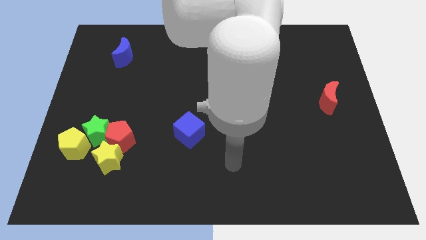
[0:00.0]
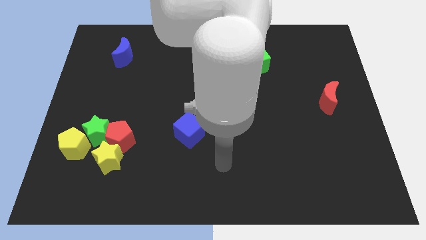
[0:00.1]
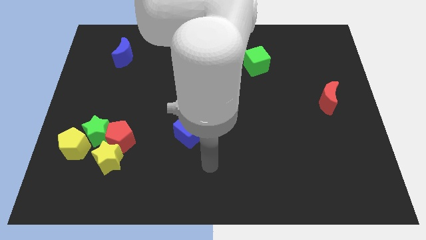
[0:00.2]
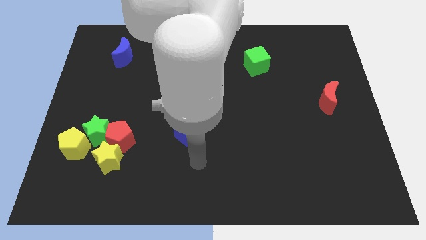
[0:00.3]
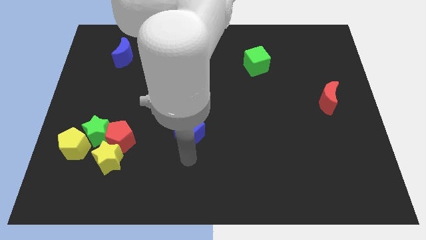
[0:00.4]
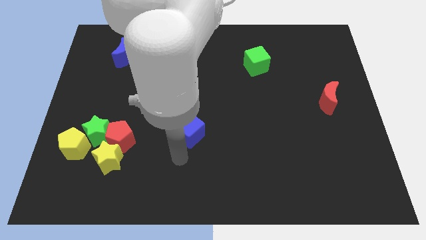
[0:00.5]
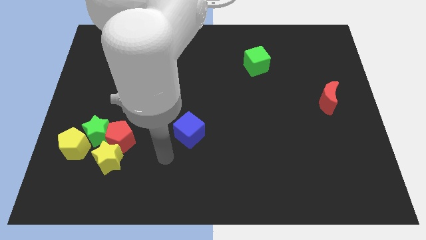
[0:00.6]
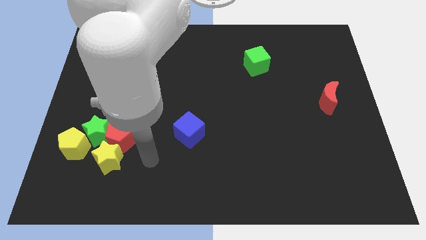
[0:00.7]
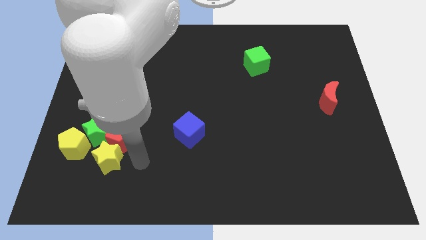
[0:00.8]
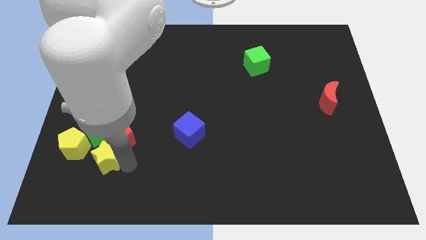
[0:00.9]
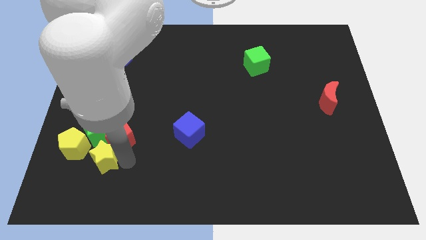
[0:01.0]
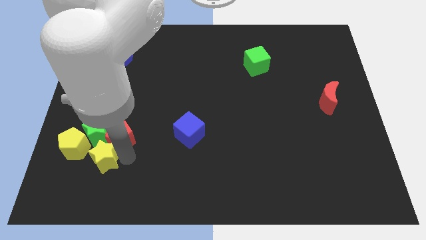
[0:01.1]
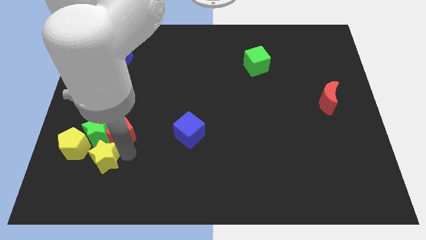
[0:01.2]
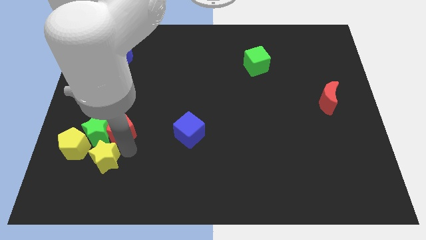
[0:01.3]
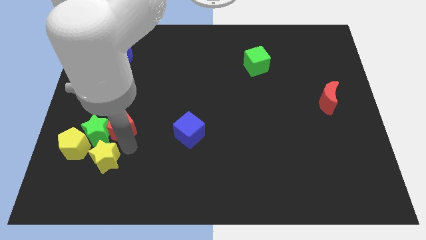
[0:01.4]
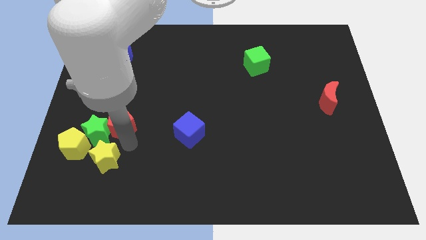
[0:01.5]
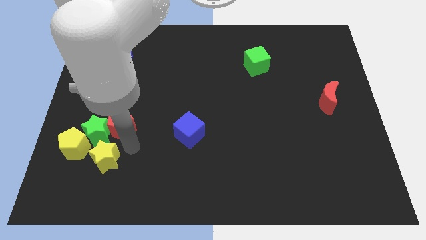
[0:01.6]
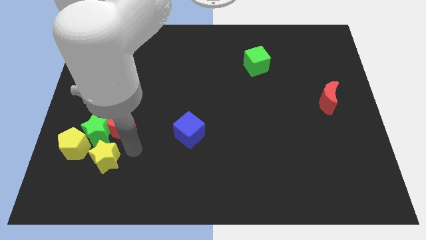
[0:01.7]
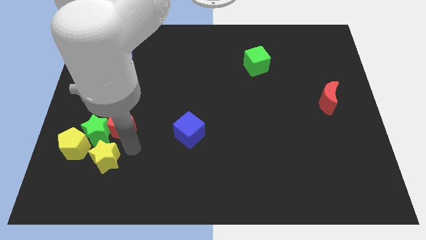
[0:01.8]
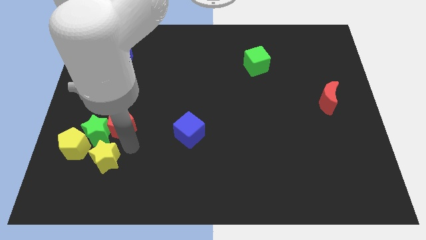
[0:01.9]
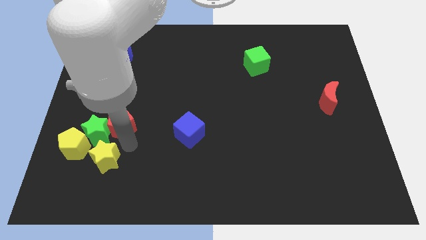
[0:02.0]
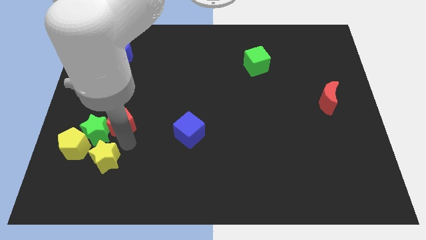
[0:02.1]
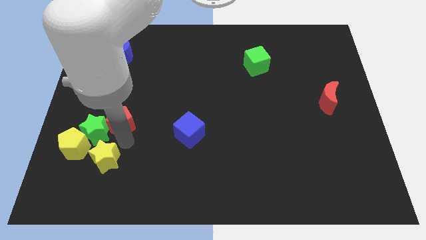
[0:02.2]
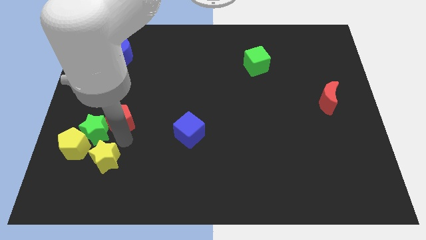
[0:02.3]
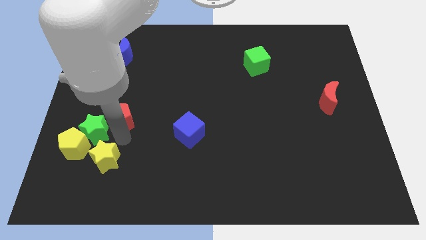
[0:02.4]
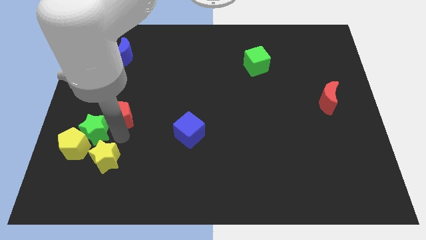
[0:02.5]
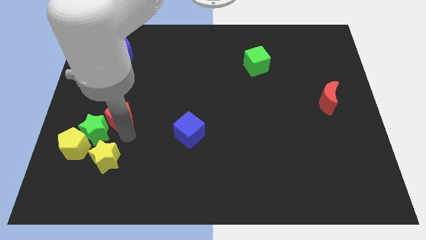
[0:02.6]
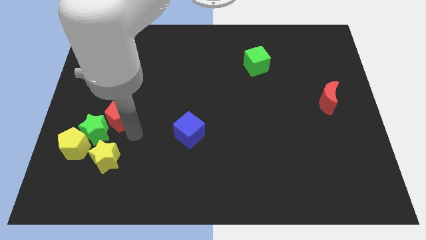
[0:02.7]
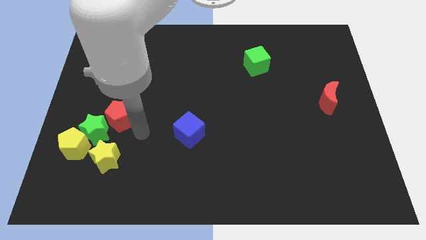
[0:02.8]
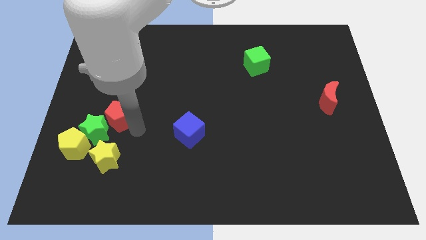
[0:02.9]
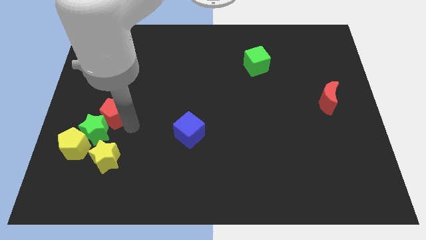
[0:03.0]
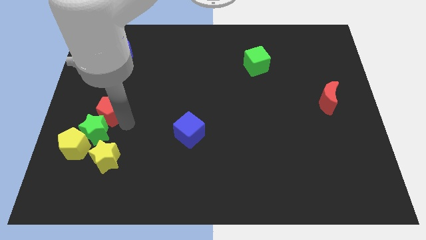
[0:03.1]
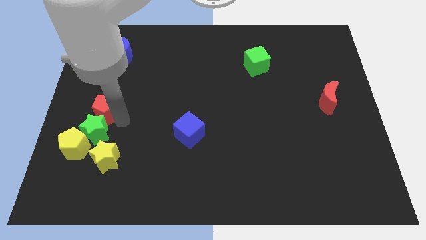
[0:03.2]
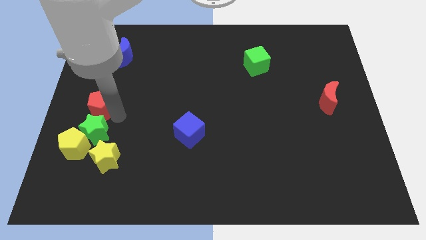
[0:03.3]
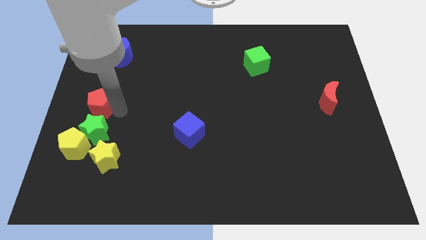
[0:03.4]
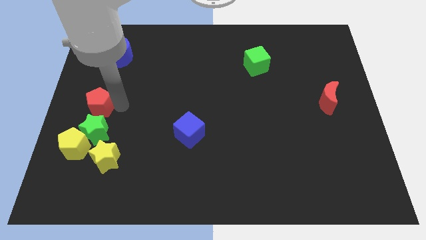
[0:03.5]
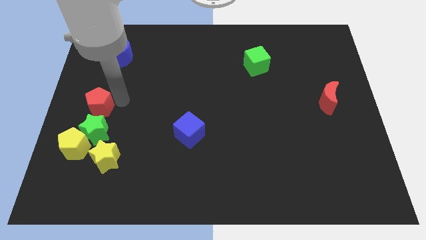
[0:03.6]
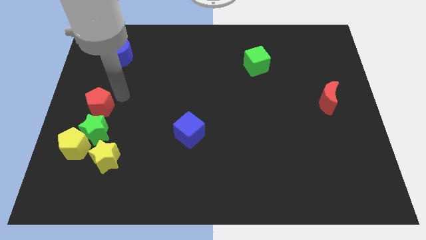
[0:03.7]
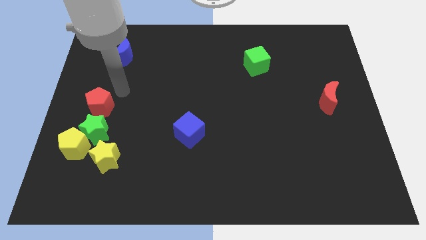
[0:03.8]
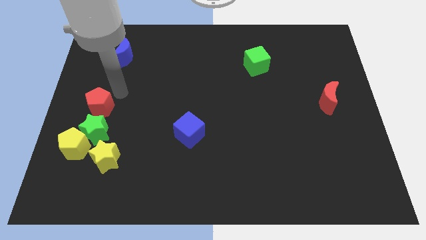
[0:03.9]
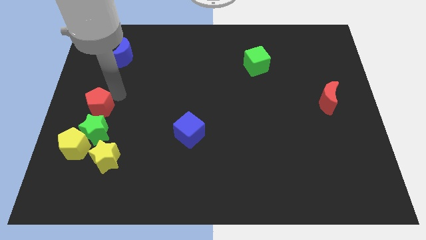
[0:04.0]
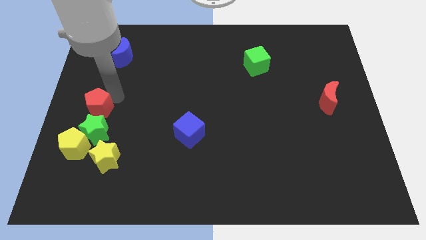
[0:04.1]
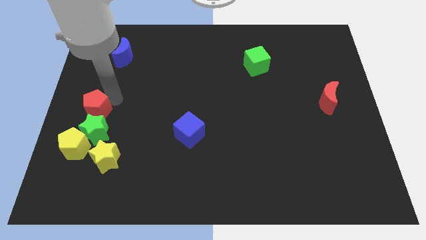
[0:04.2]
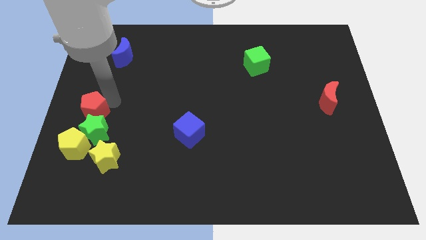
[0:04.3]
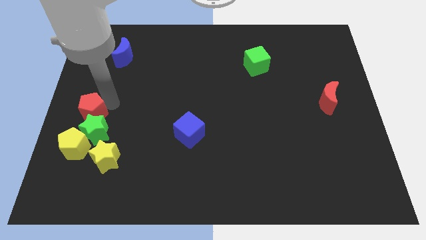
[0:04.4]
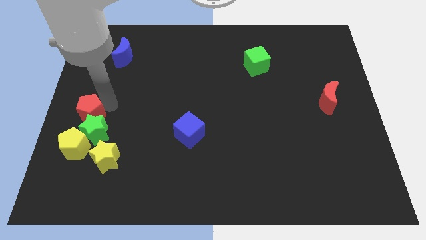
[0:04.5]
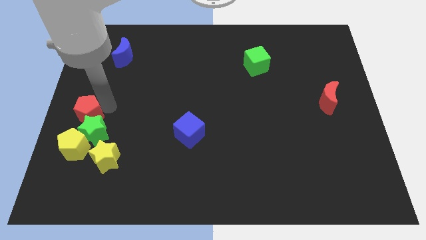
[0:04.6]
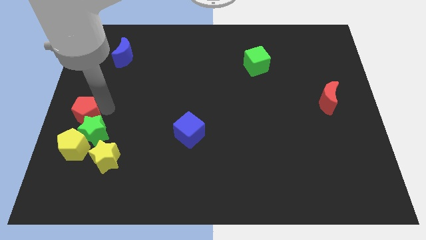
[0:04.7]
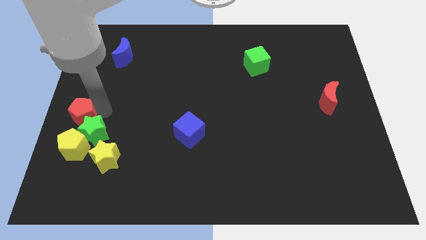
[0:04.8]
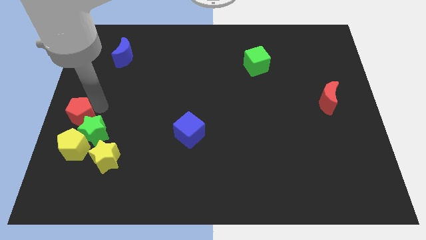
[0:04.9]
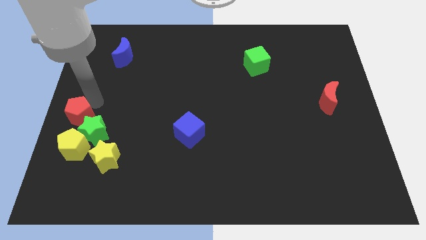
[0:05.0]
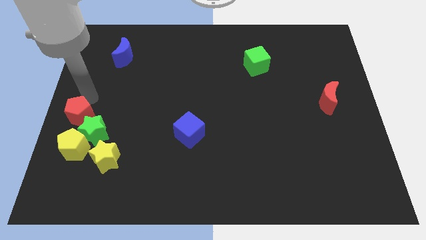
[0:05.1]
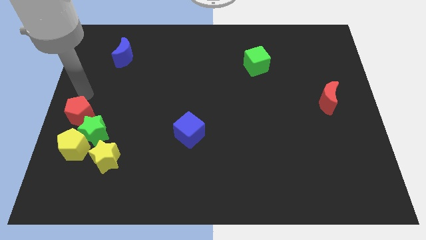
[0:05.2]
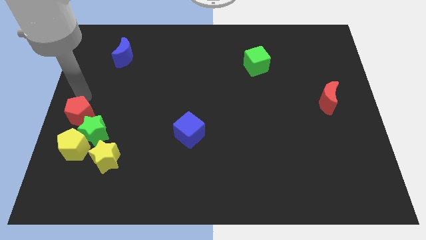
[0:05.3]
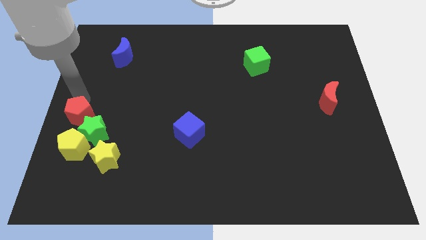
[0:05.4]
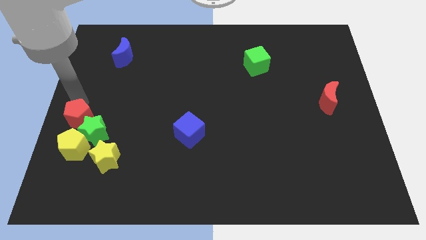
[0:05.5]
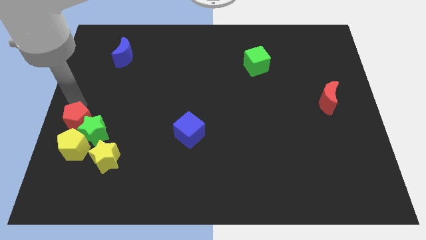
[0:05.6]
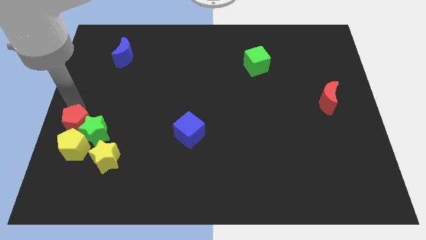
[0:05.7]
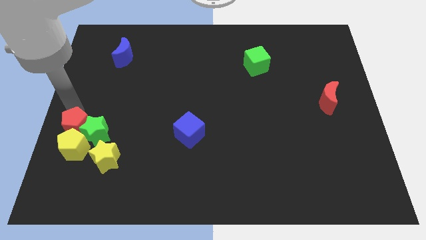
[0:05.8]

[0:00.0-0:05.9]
slide the red pentagon towards the yellow pentagon

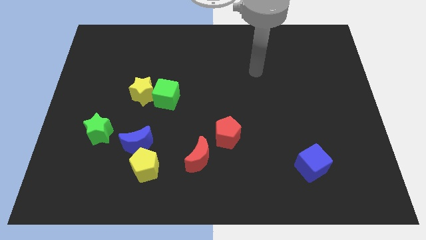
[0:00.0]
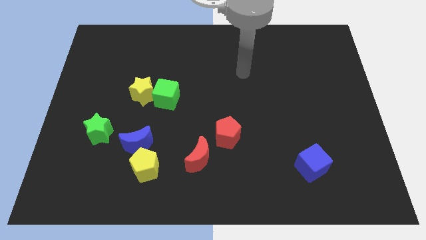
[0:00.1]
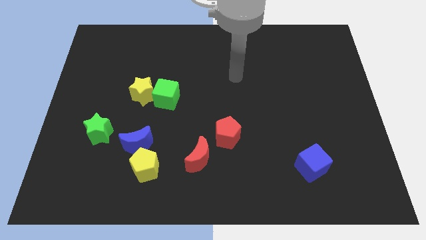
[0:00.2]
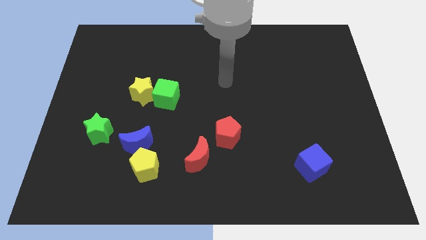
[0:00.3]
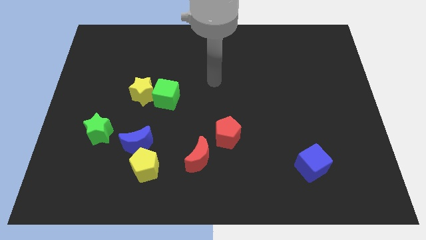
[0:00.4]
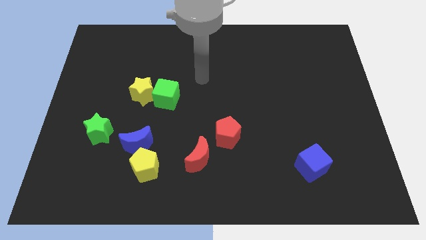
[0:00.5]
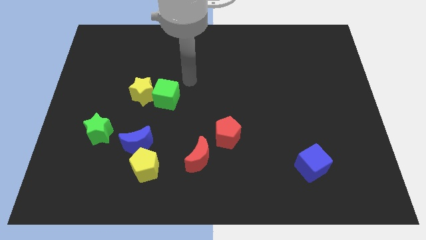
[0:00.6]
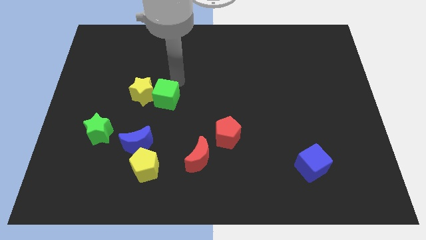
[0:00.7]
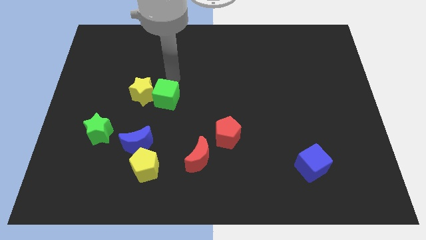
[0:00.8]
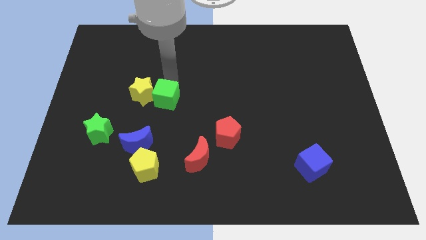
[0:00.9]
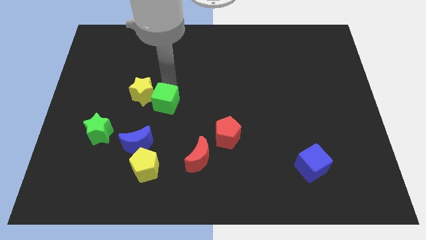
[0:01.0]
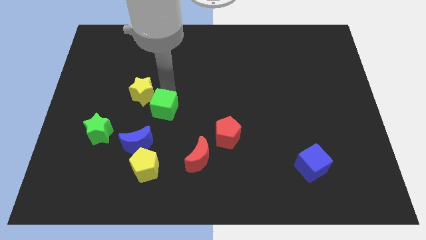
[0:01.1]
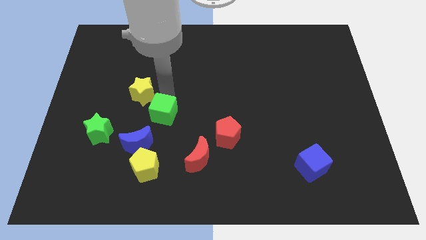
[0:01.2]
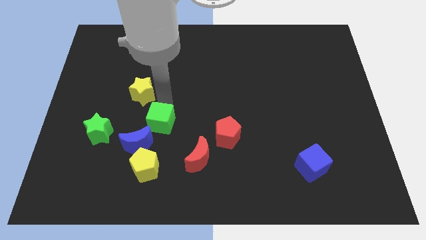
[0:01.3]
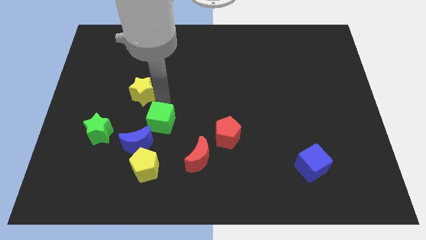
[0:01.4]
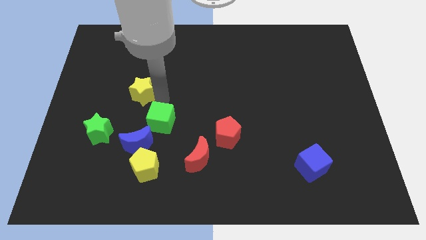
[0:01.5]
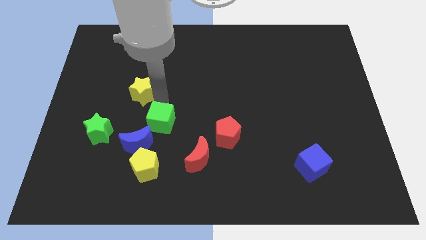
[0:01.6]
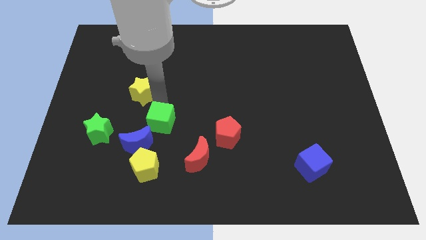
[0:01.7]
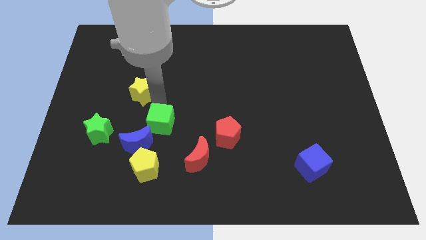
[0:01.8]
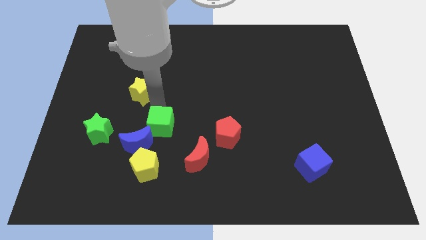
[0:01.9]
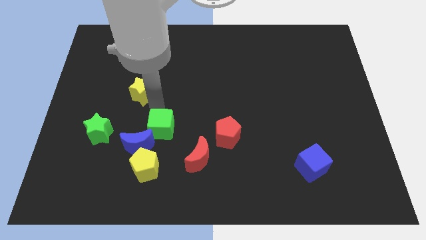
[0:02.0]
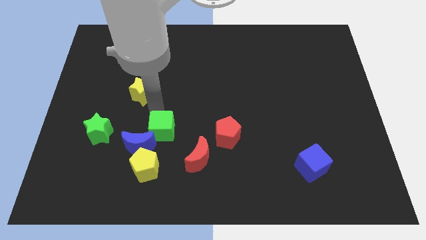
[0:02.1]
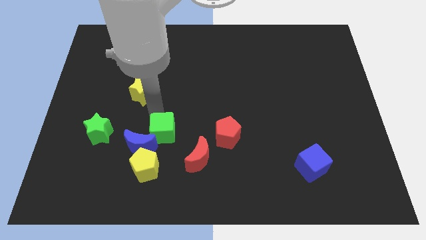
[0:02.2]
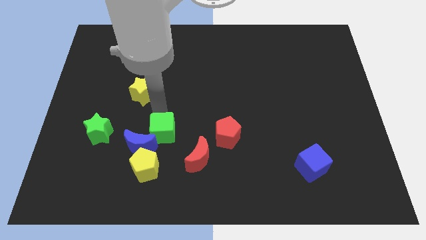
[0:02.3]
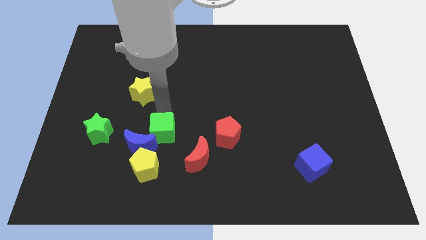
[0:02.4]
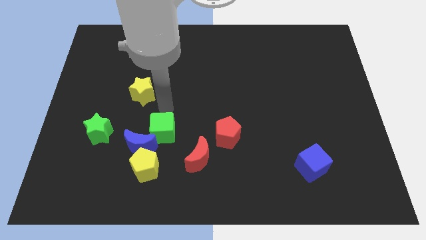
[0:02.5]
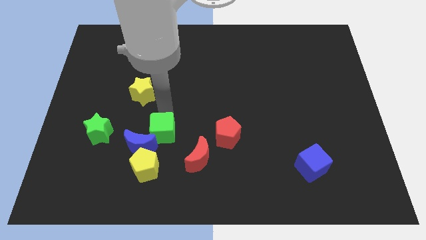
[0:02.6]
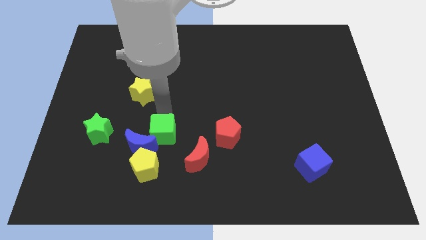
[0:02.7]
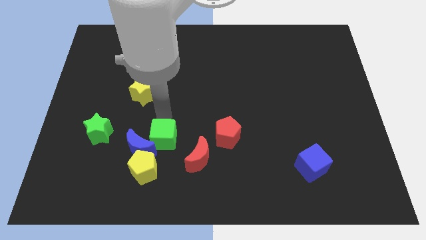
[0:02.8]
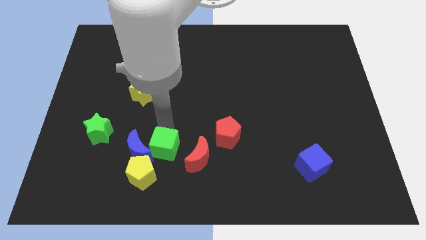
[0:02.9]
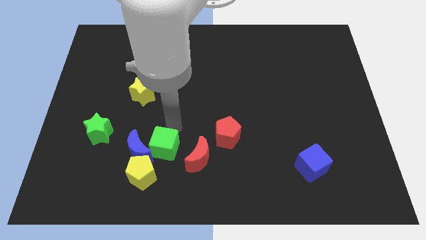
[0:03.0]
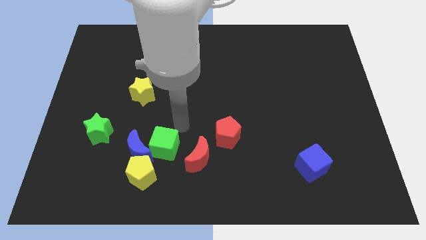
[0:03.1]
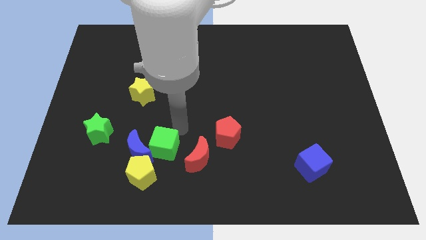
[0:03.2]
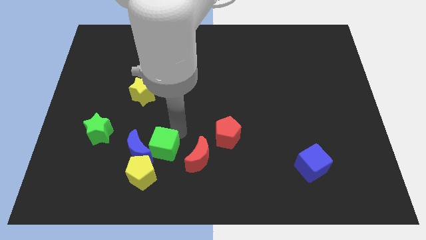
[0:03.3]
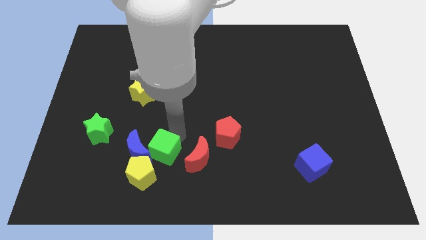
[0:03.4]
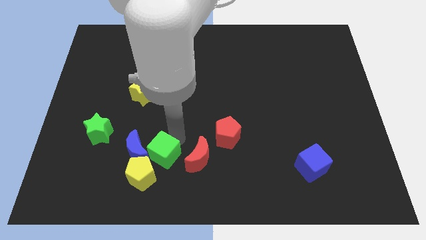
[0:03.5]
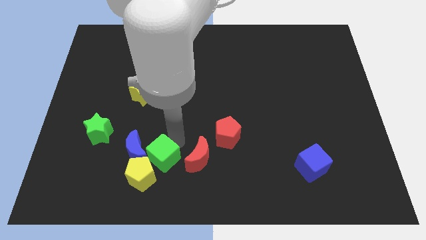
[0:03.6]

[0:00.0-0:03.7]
push the green cube to the yellow pentagon
